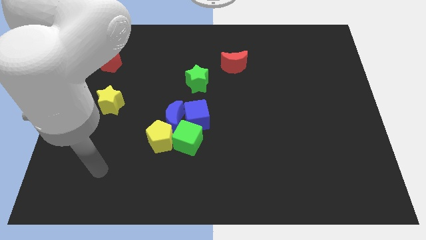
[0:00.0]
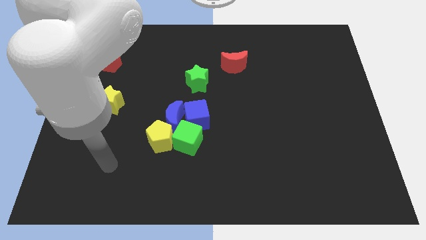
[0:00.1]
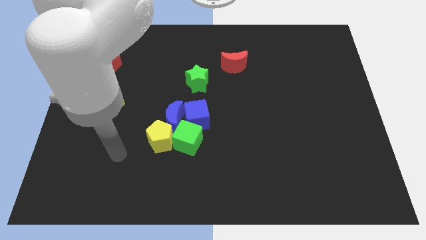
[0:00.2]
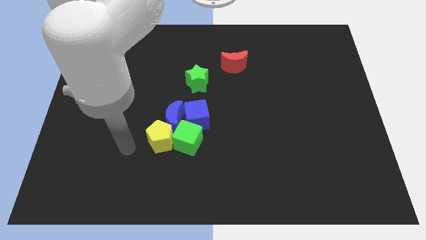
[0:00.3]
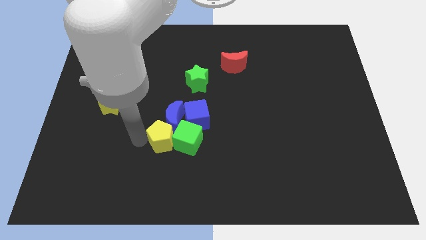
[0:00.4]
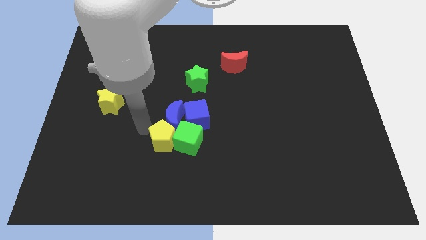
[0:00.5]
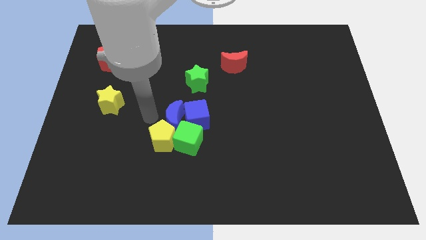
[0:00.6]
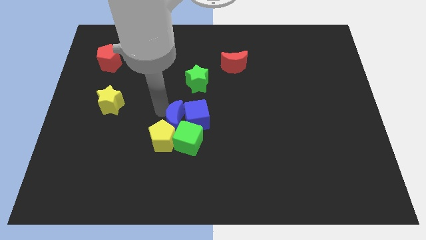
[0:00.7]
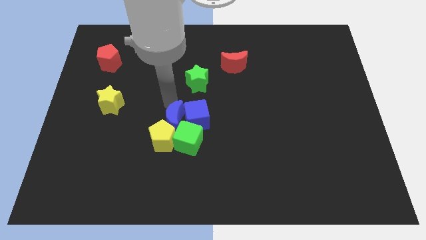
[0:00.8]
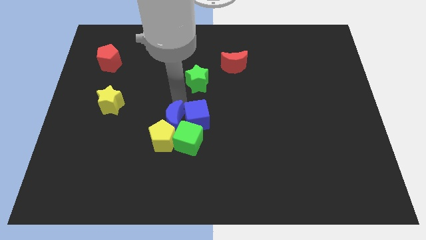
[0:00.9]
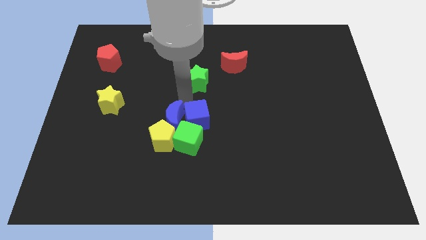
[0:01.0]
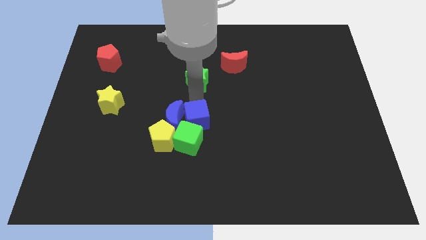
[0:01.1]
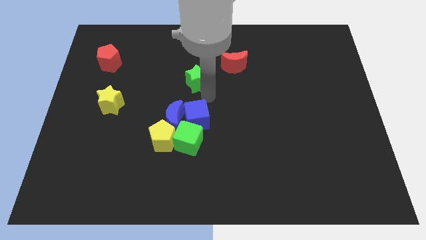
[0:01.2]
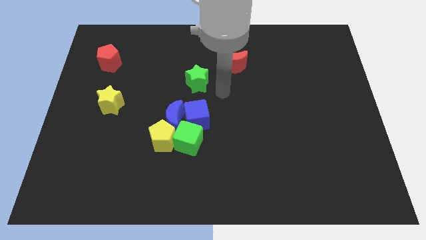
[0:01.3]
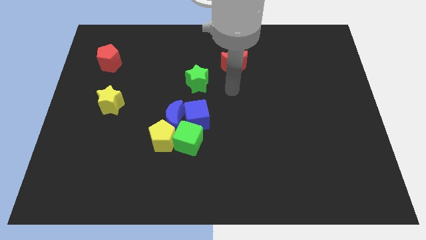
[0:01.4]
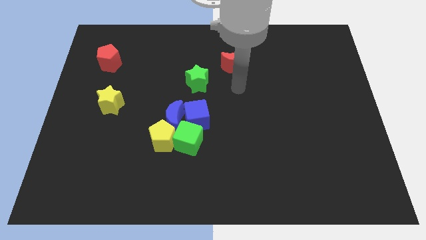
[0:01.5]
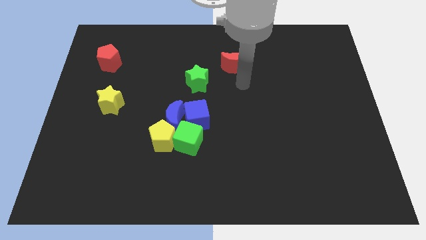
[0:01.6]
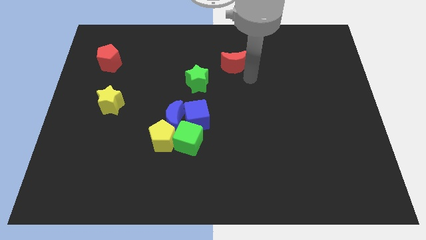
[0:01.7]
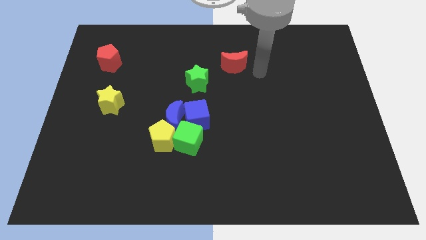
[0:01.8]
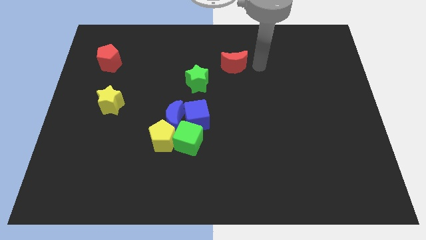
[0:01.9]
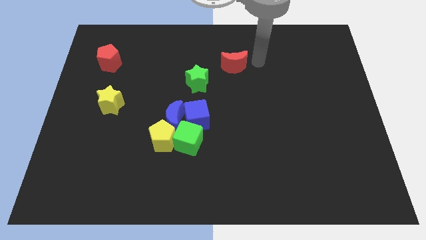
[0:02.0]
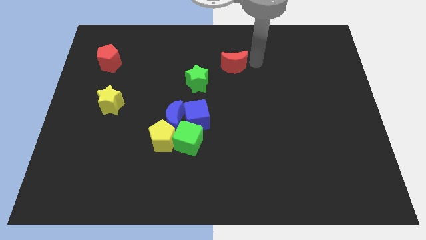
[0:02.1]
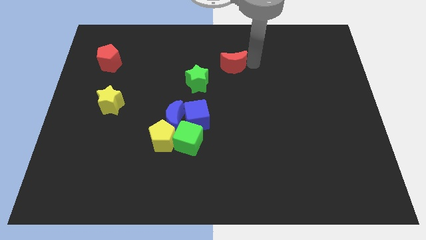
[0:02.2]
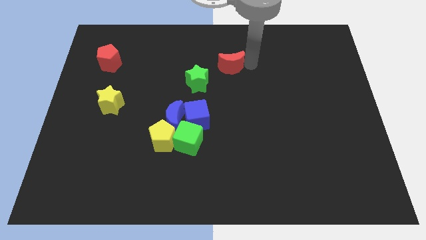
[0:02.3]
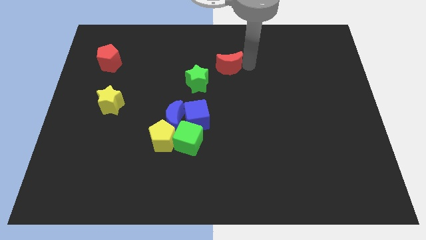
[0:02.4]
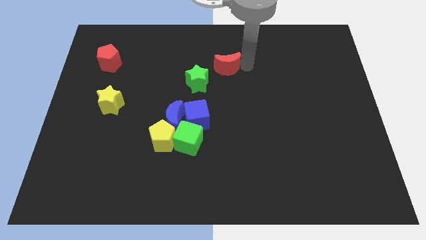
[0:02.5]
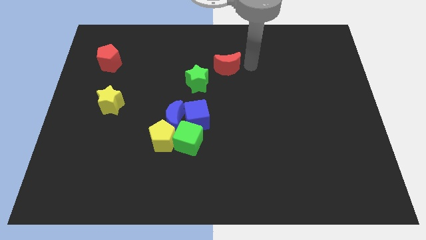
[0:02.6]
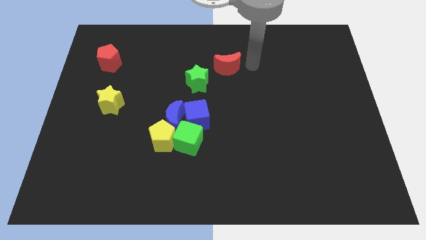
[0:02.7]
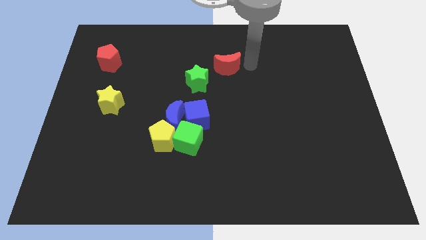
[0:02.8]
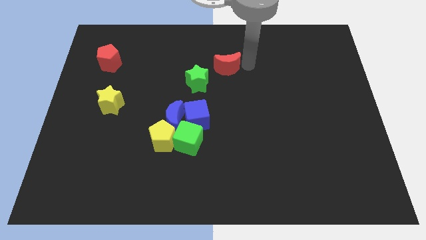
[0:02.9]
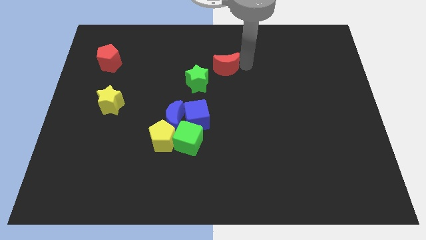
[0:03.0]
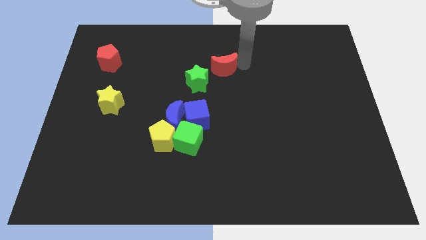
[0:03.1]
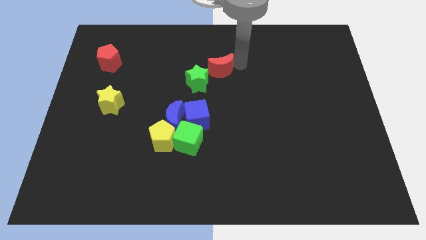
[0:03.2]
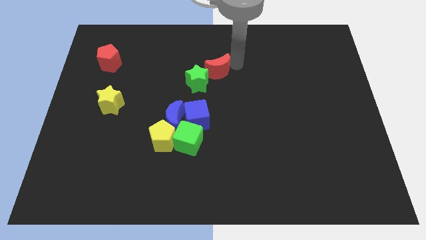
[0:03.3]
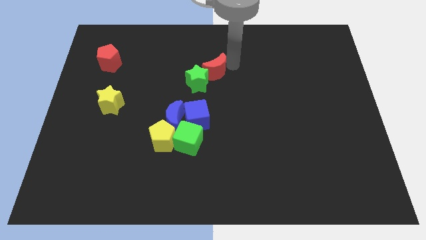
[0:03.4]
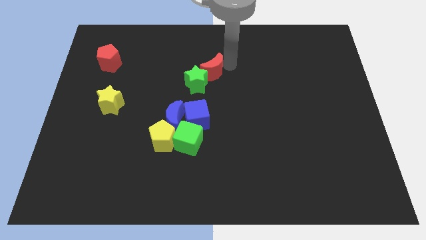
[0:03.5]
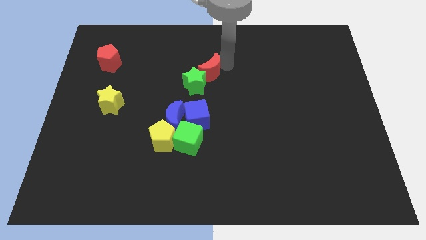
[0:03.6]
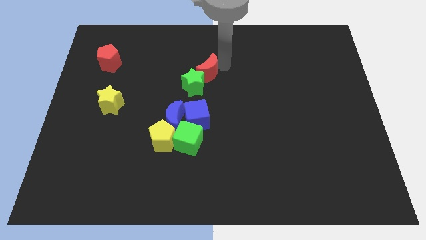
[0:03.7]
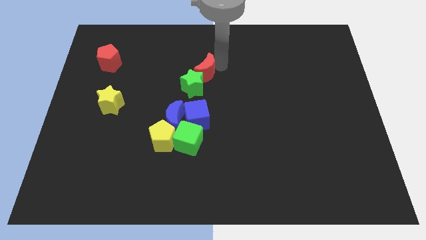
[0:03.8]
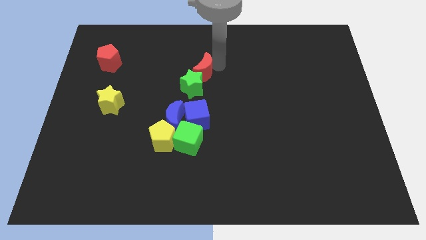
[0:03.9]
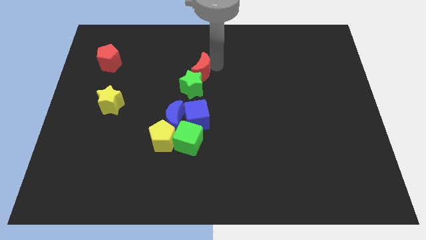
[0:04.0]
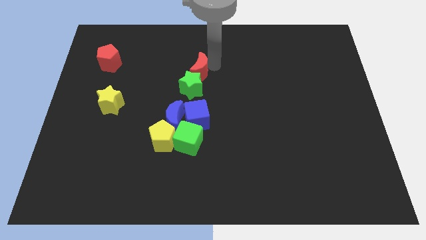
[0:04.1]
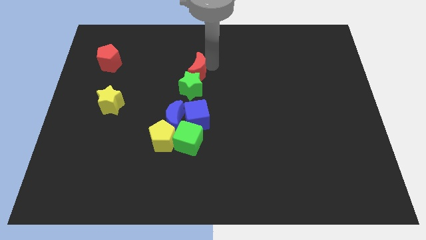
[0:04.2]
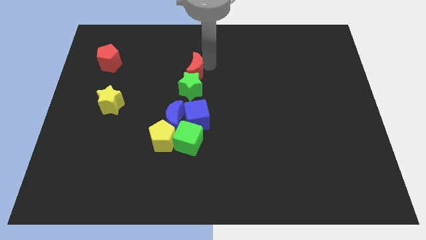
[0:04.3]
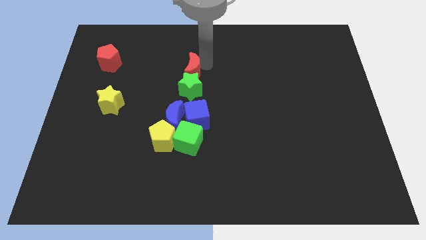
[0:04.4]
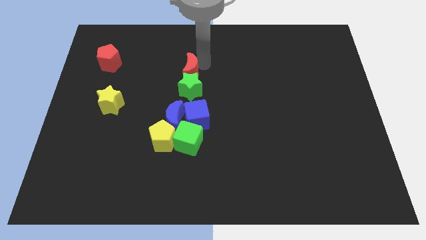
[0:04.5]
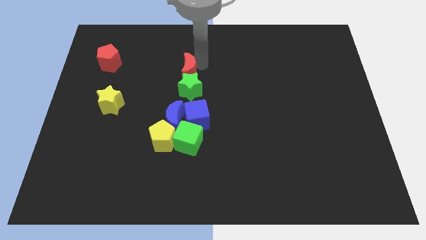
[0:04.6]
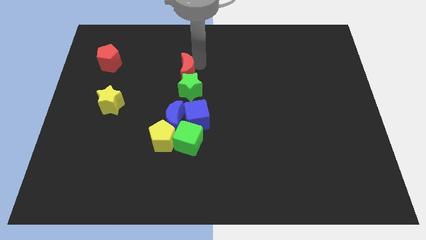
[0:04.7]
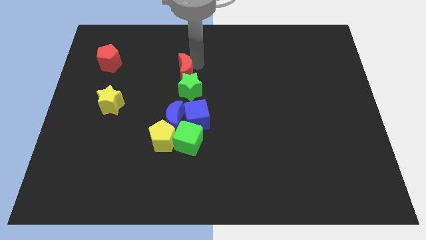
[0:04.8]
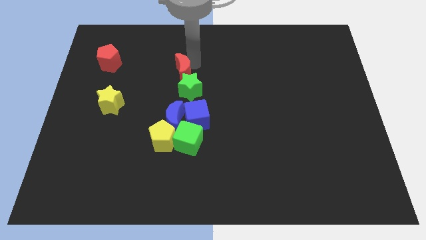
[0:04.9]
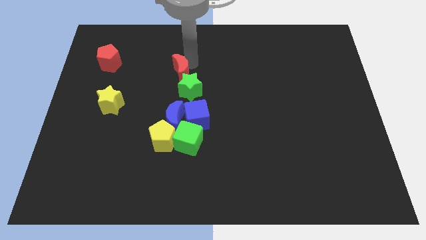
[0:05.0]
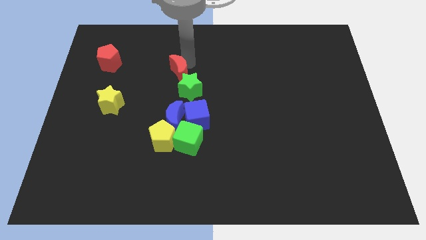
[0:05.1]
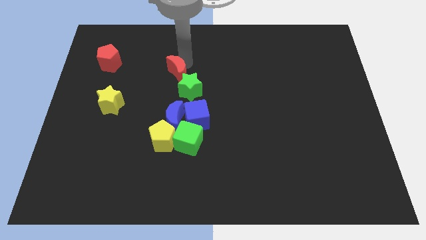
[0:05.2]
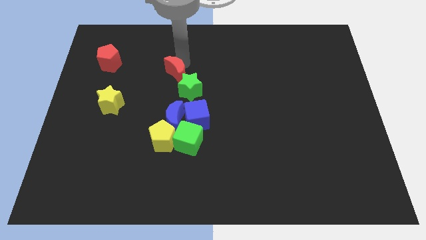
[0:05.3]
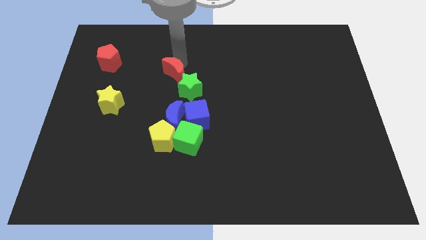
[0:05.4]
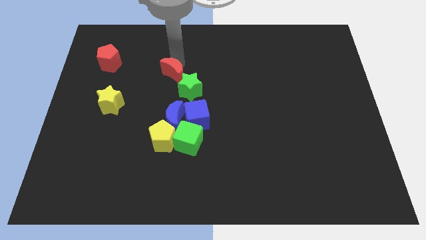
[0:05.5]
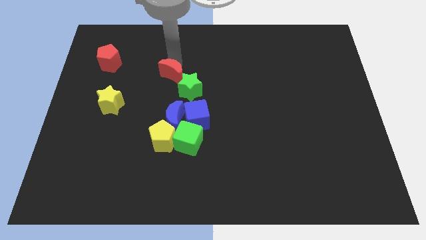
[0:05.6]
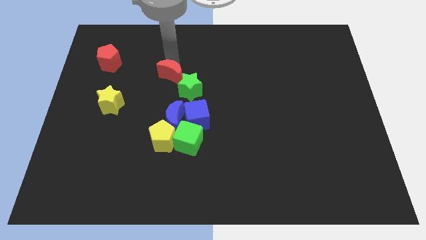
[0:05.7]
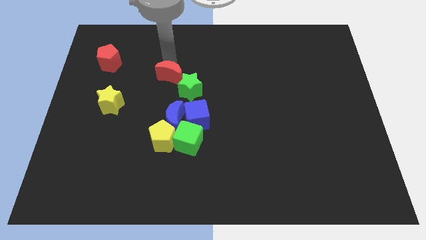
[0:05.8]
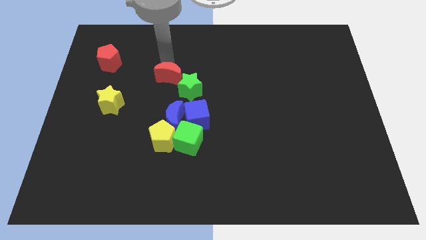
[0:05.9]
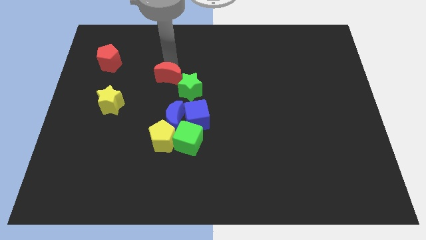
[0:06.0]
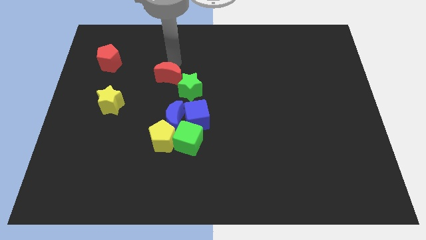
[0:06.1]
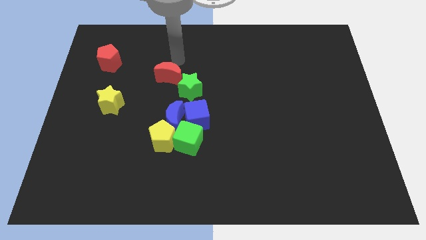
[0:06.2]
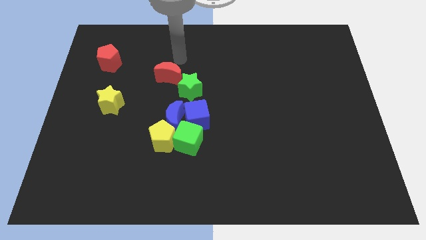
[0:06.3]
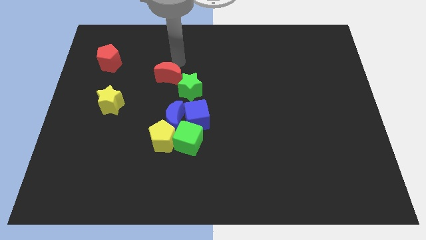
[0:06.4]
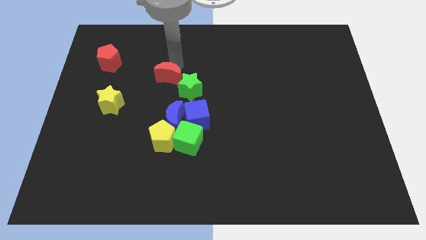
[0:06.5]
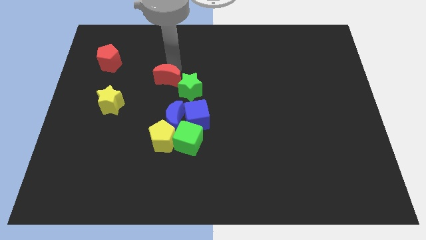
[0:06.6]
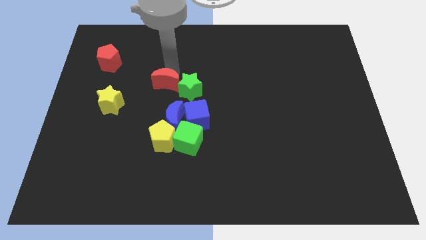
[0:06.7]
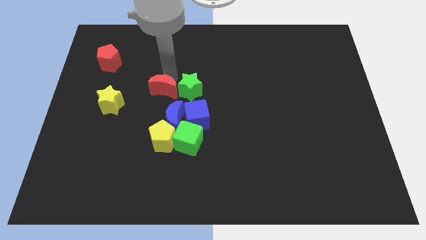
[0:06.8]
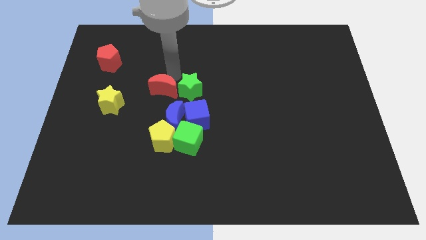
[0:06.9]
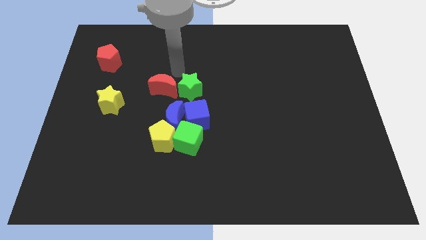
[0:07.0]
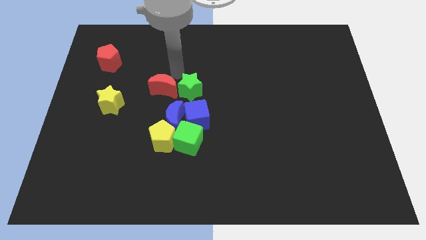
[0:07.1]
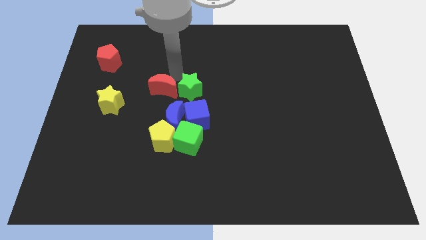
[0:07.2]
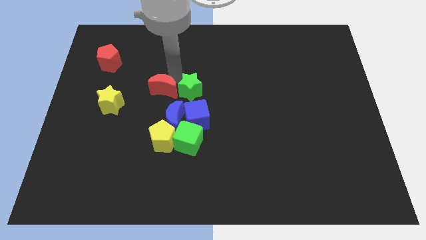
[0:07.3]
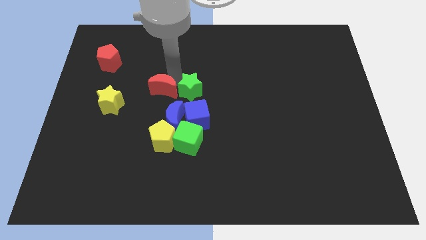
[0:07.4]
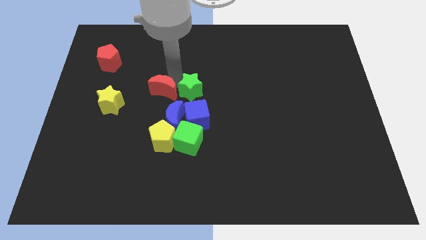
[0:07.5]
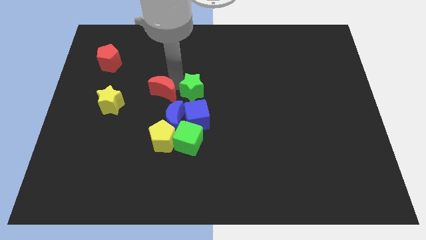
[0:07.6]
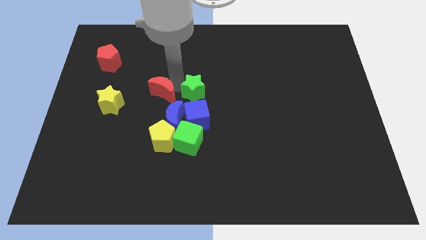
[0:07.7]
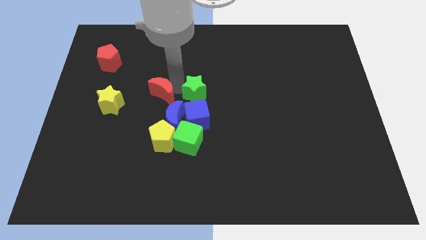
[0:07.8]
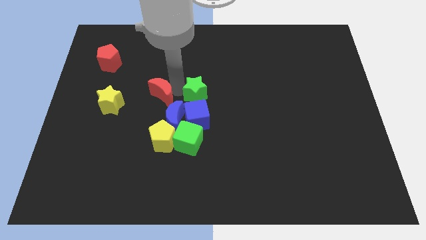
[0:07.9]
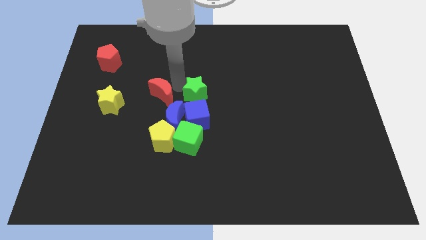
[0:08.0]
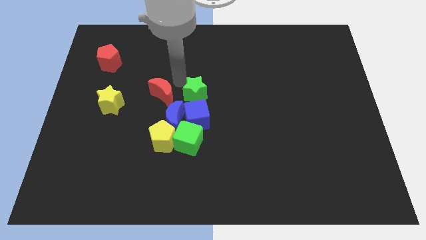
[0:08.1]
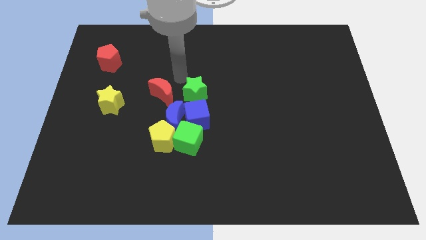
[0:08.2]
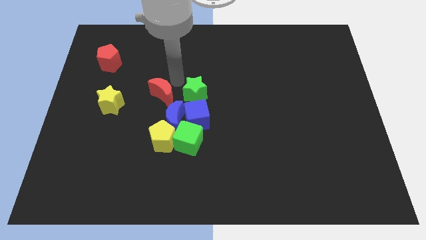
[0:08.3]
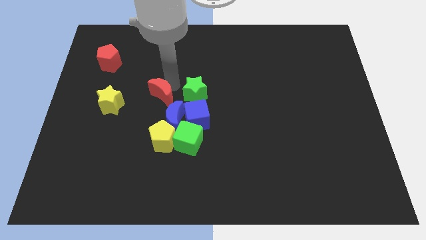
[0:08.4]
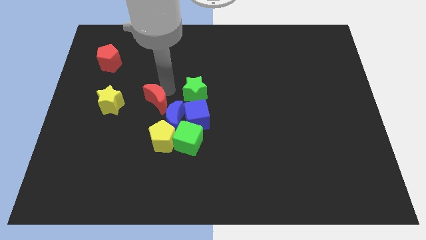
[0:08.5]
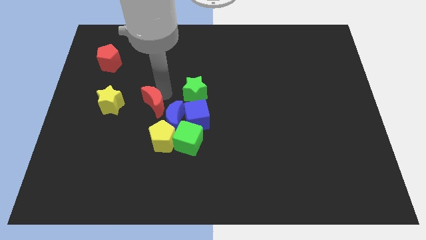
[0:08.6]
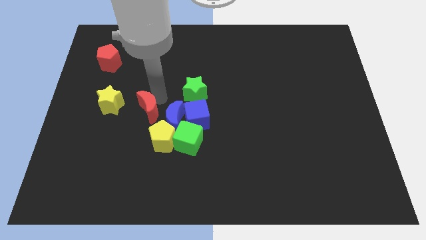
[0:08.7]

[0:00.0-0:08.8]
slide the red moon diagonally up and to the left of the yellow pentagon
